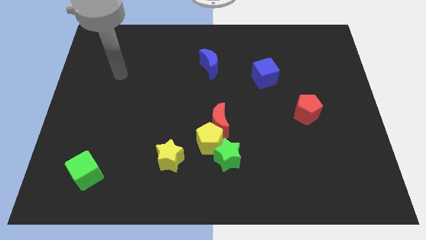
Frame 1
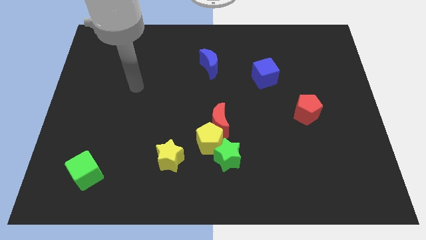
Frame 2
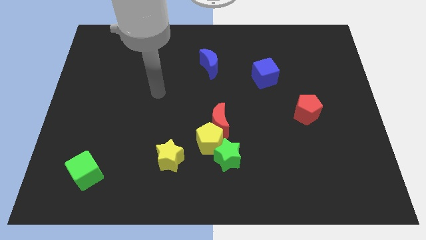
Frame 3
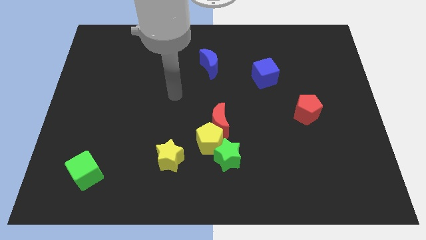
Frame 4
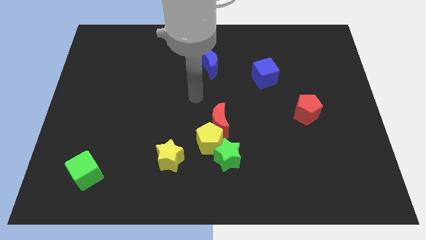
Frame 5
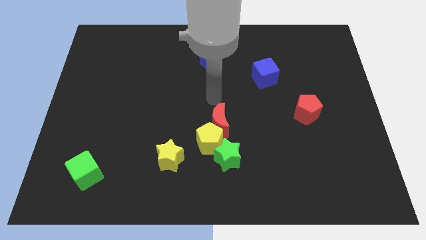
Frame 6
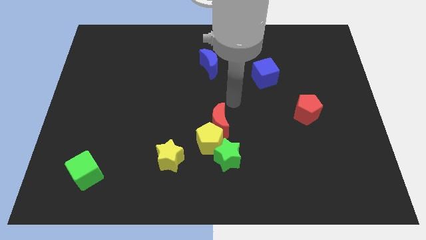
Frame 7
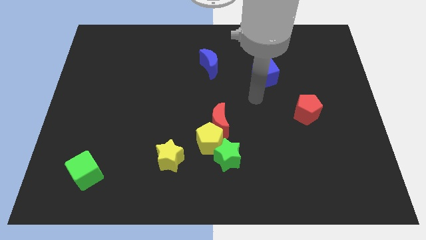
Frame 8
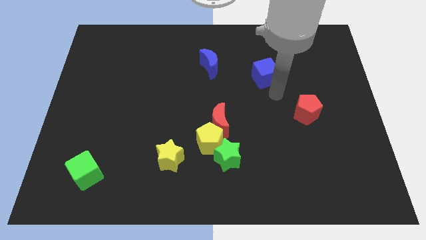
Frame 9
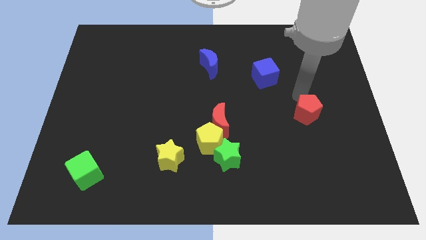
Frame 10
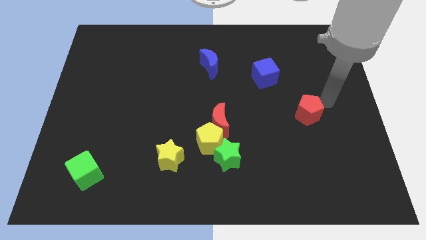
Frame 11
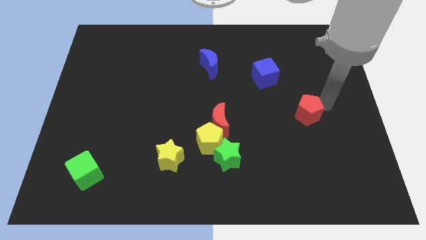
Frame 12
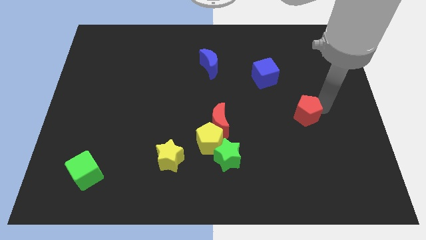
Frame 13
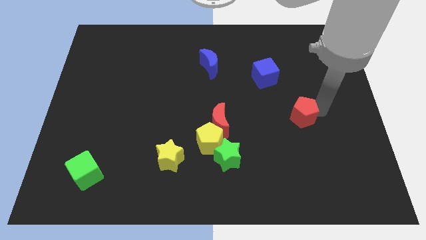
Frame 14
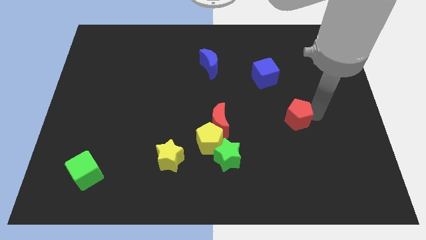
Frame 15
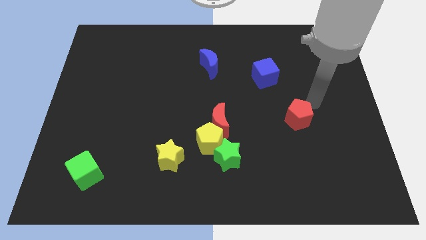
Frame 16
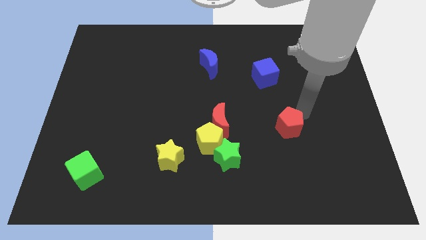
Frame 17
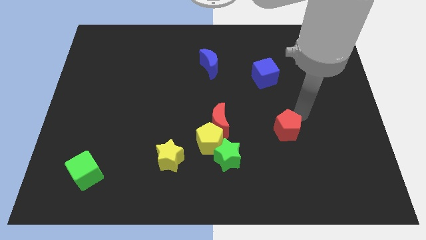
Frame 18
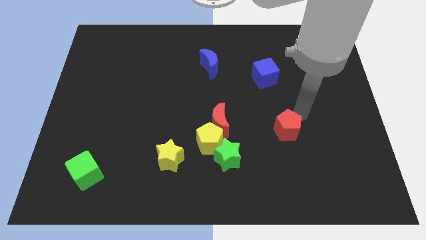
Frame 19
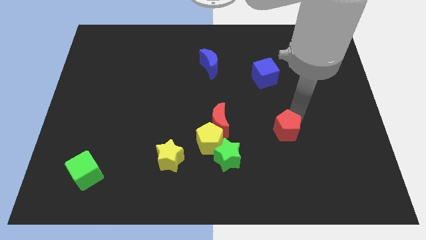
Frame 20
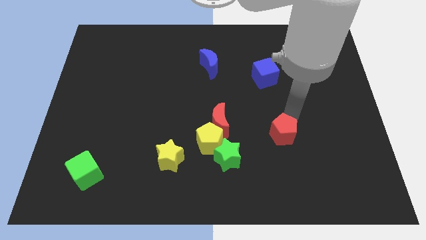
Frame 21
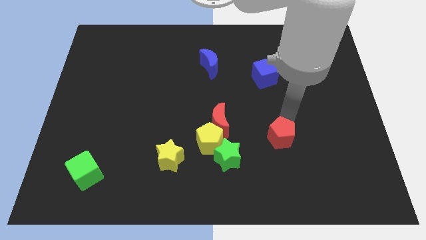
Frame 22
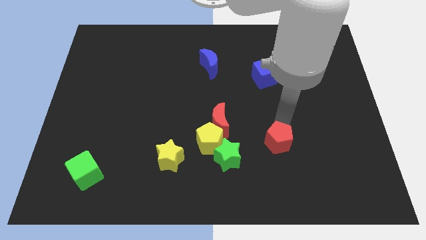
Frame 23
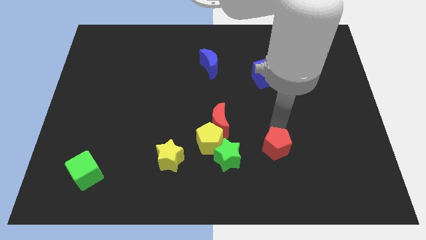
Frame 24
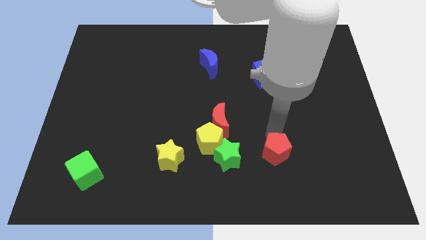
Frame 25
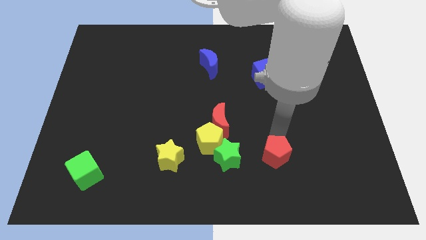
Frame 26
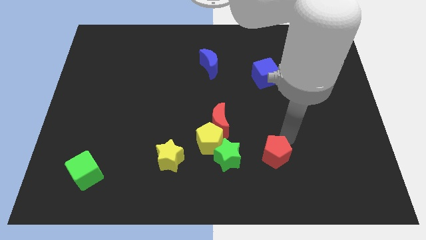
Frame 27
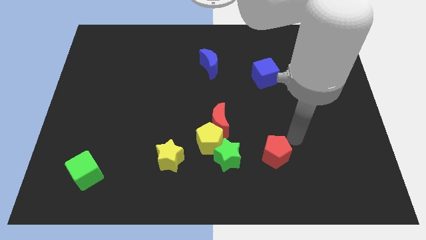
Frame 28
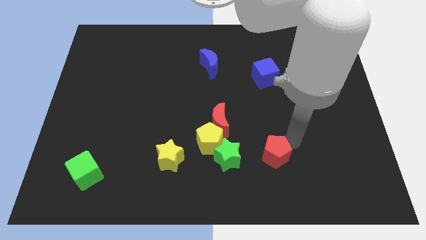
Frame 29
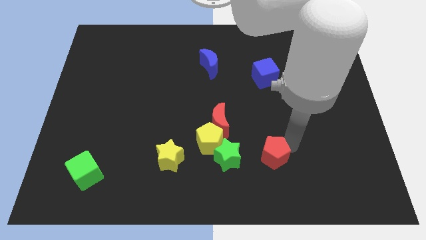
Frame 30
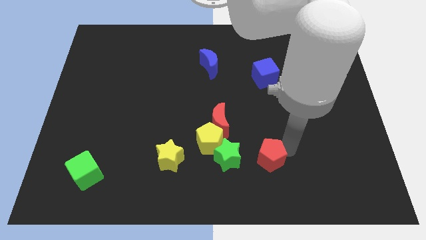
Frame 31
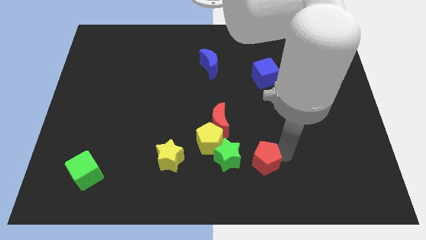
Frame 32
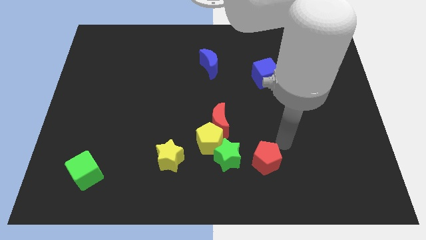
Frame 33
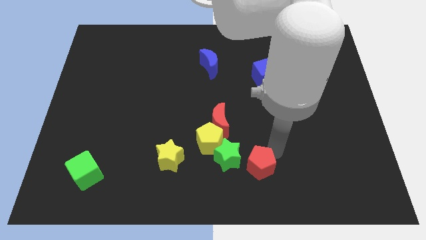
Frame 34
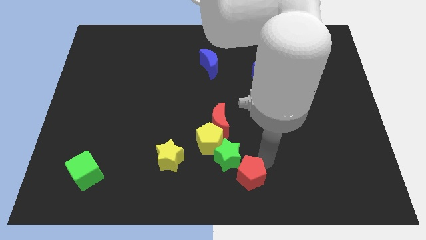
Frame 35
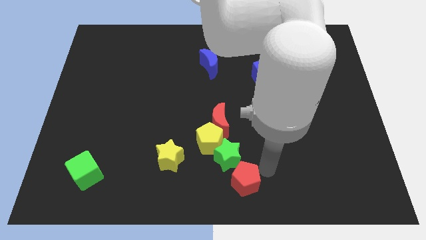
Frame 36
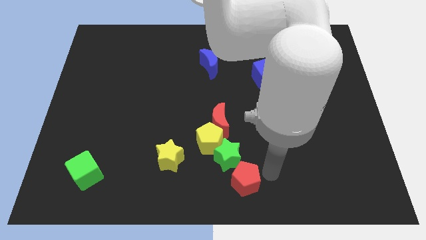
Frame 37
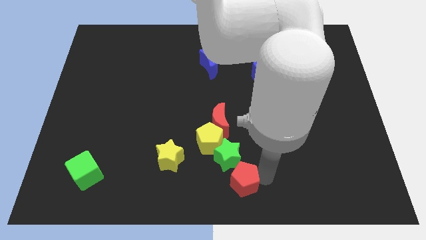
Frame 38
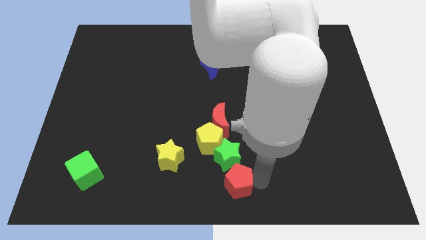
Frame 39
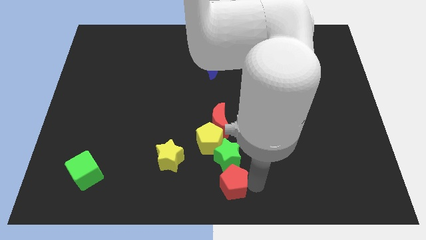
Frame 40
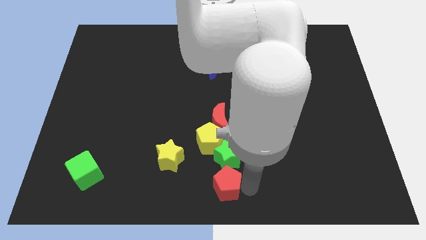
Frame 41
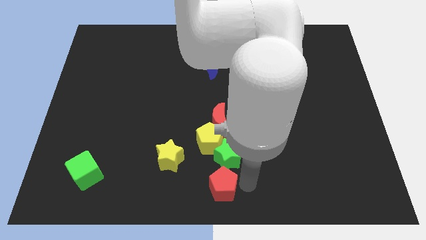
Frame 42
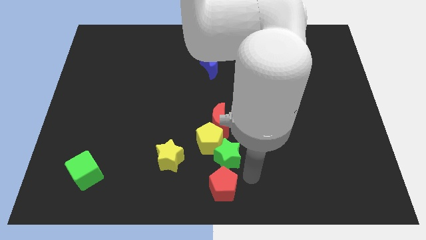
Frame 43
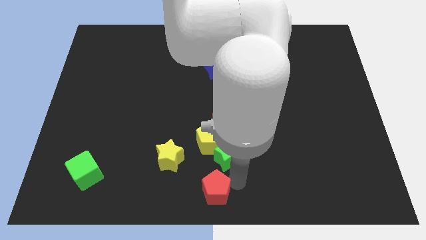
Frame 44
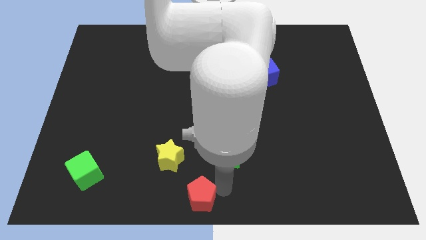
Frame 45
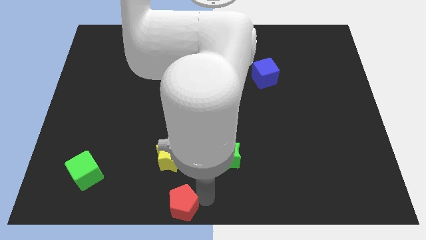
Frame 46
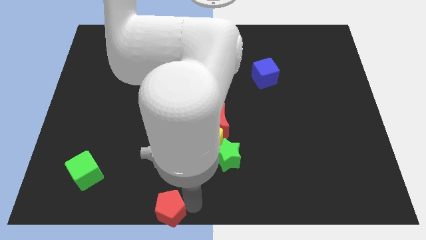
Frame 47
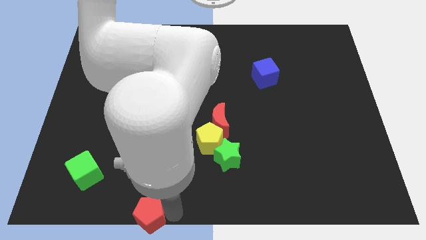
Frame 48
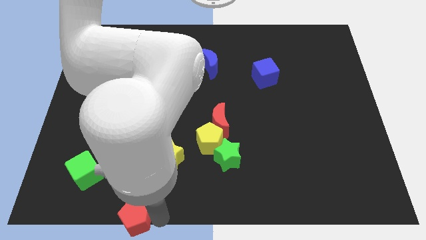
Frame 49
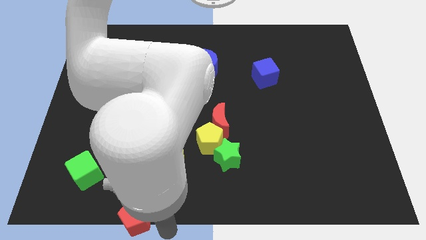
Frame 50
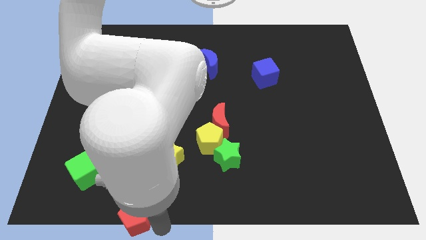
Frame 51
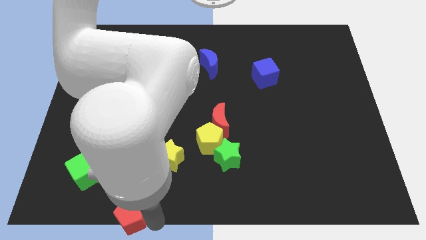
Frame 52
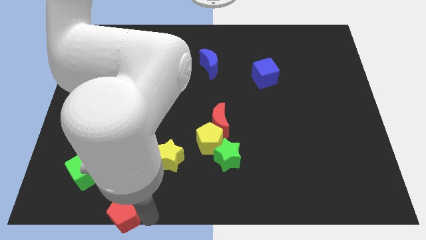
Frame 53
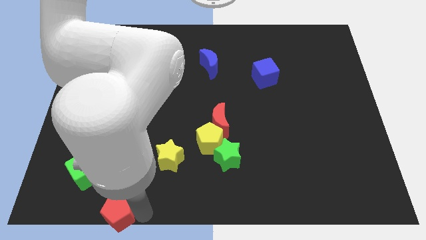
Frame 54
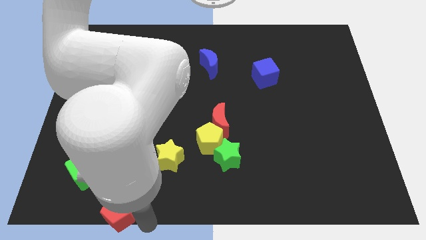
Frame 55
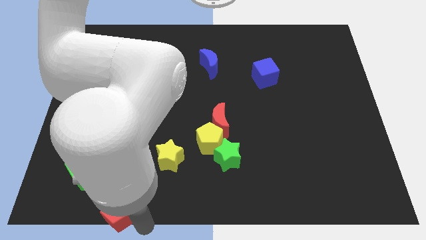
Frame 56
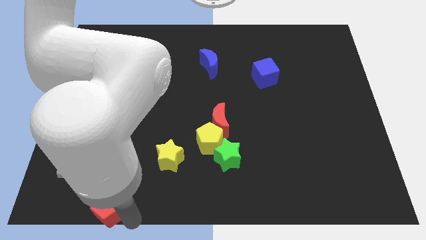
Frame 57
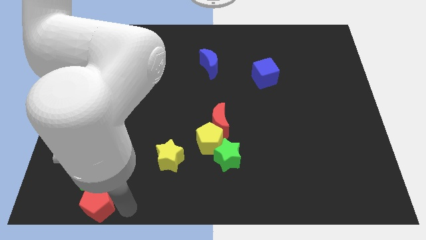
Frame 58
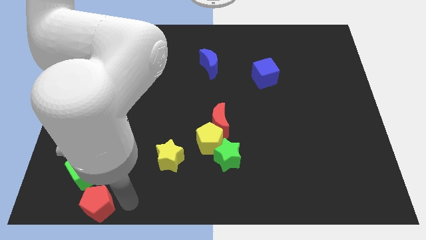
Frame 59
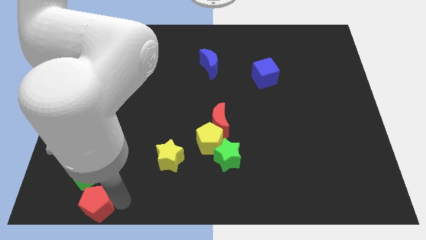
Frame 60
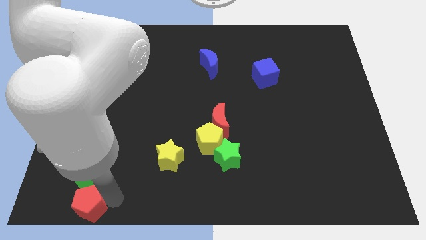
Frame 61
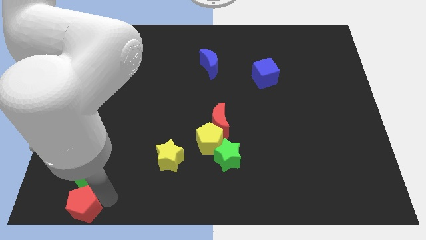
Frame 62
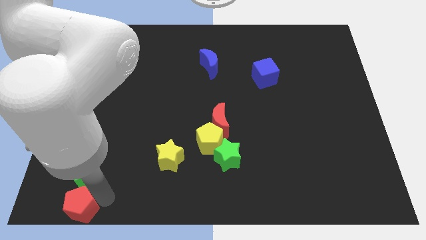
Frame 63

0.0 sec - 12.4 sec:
slide the red pentagon to the bottom left corner

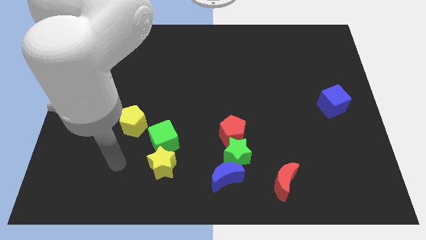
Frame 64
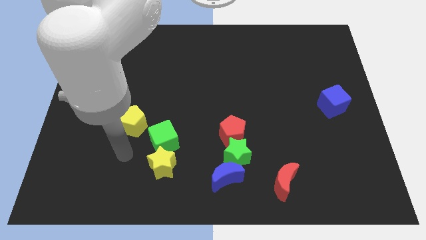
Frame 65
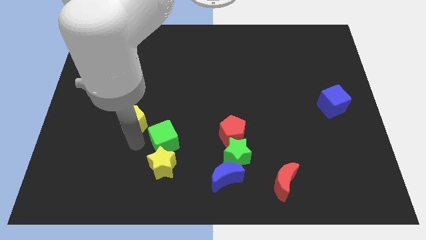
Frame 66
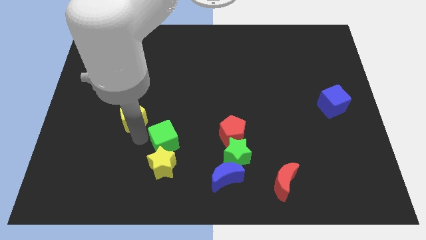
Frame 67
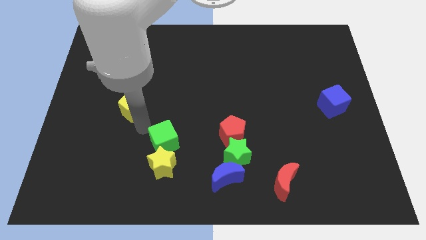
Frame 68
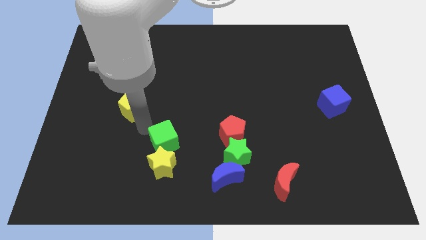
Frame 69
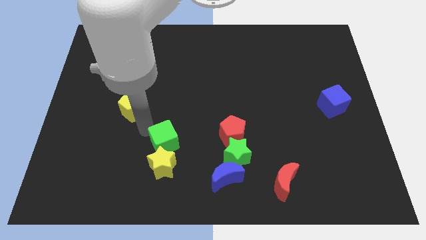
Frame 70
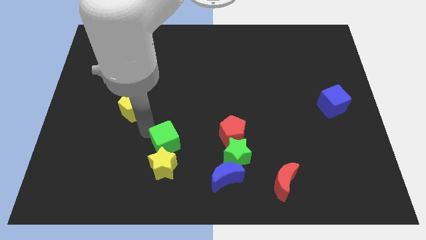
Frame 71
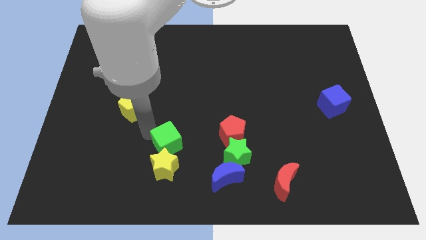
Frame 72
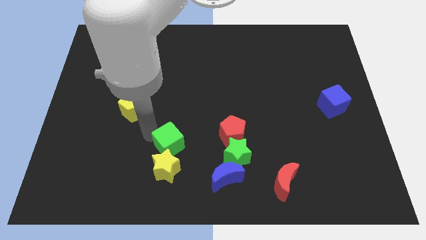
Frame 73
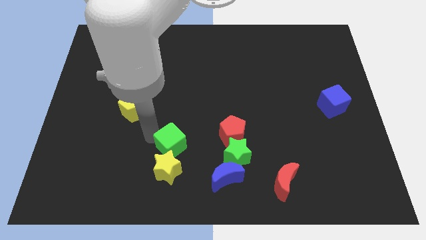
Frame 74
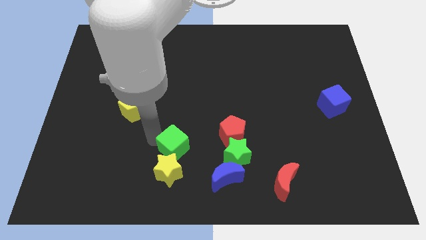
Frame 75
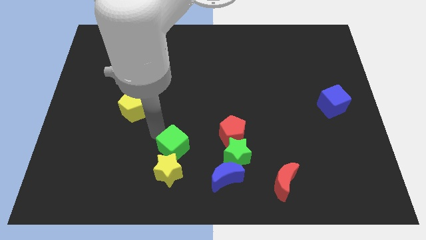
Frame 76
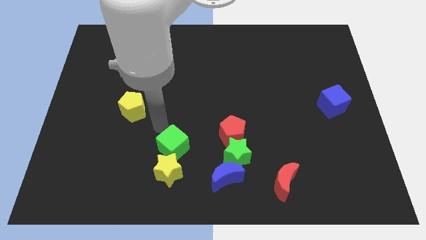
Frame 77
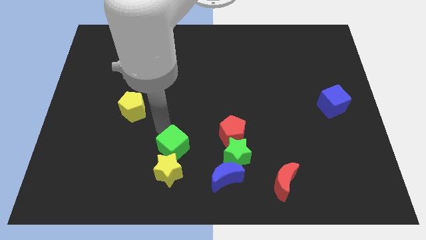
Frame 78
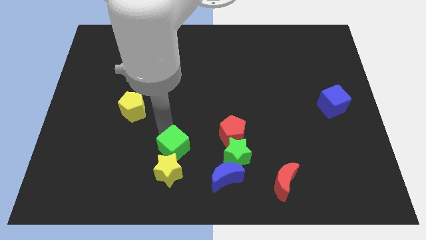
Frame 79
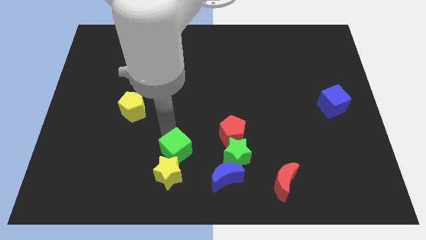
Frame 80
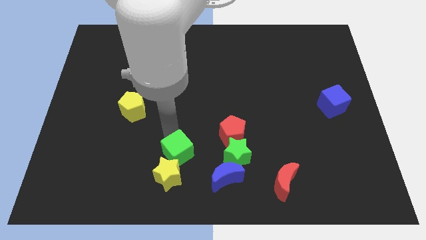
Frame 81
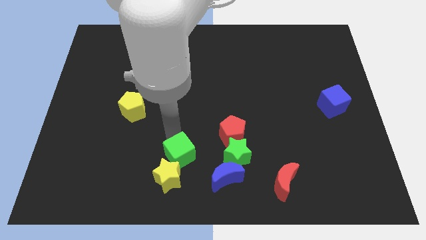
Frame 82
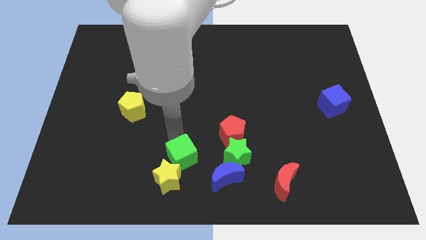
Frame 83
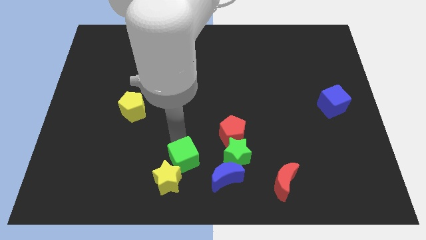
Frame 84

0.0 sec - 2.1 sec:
put the green cube to the bottom side
